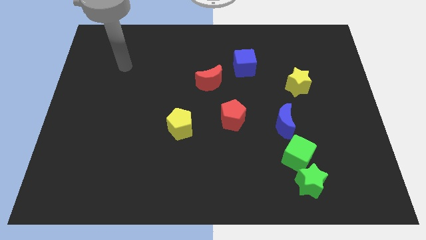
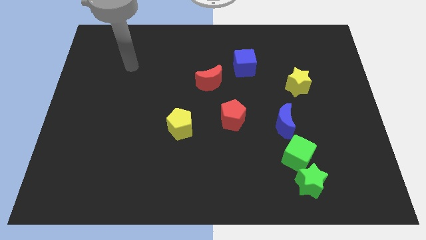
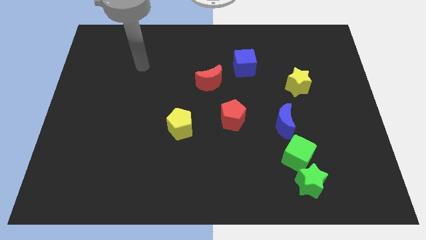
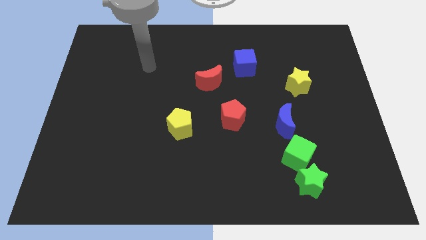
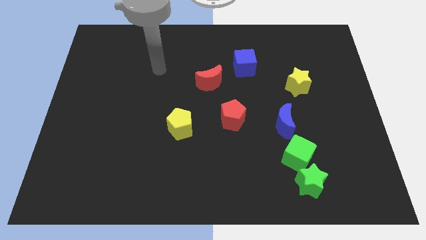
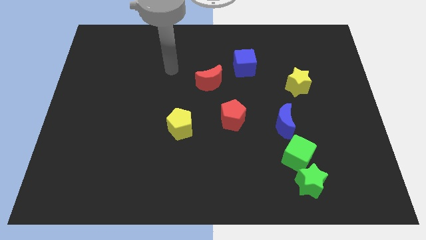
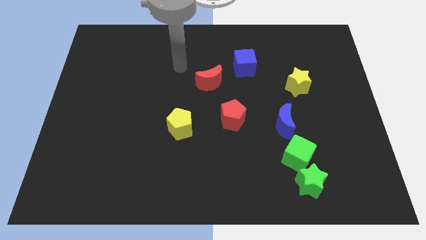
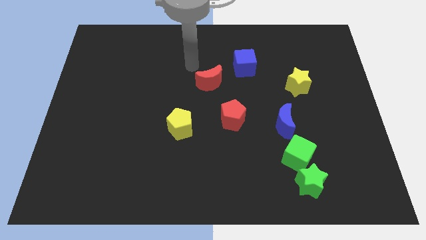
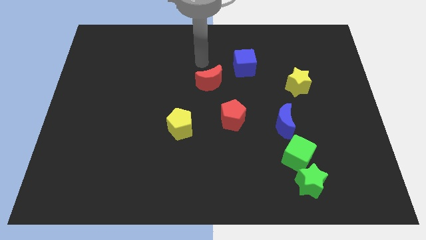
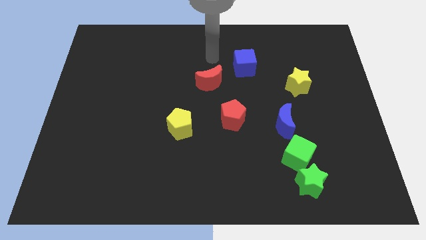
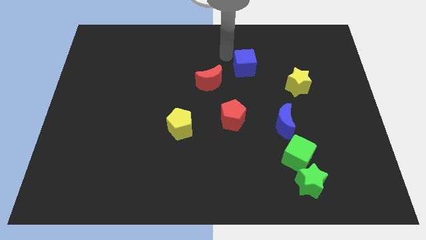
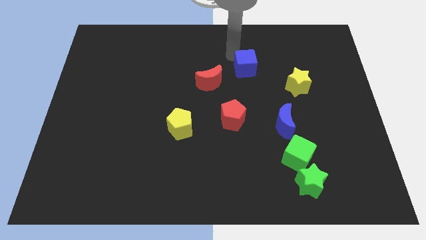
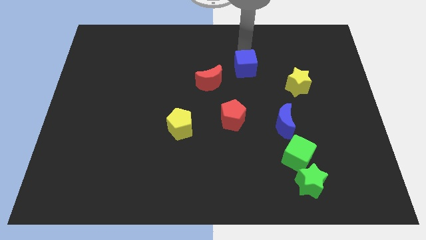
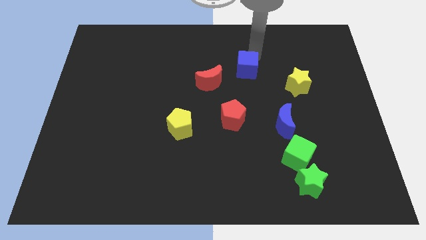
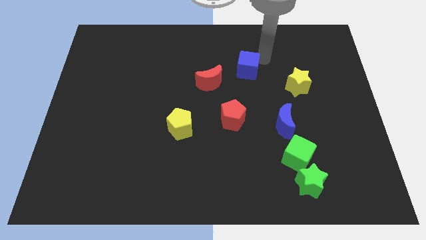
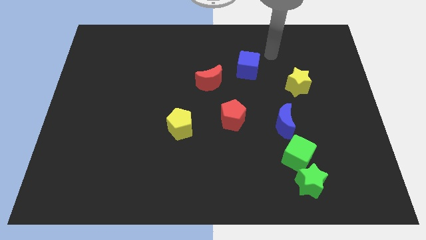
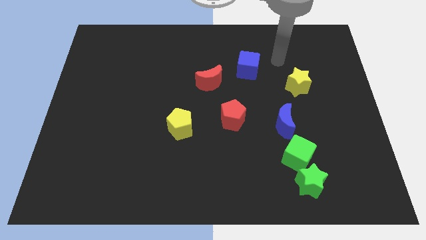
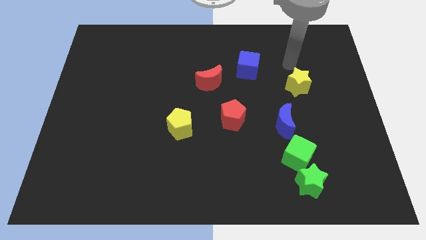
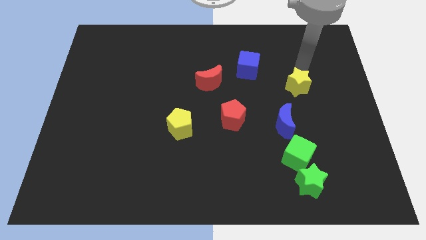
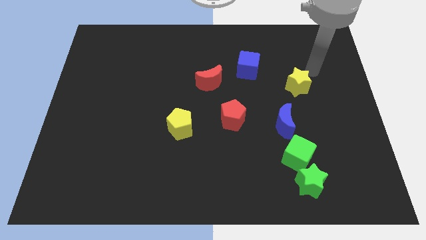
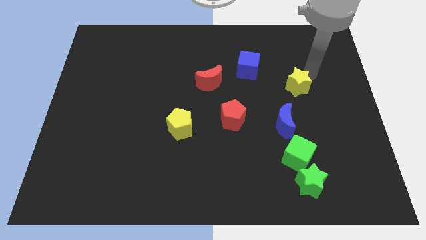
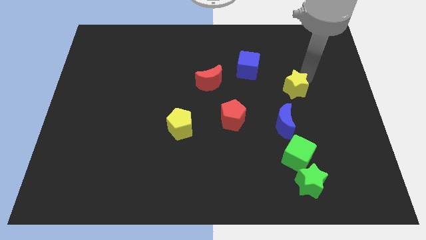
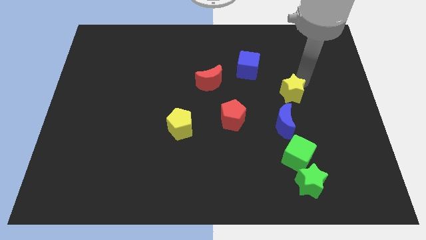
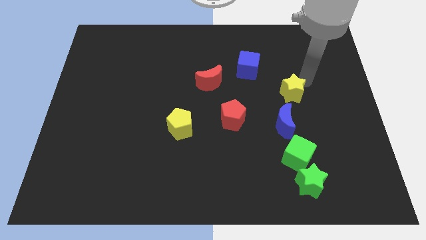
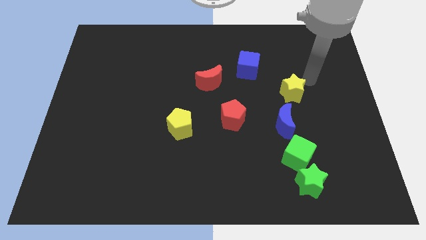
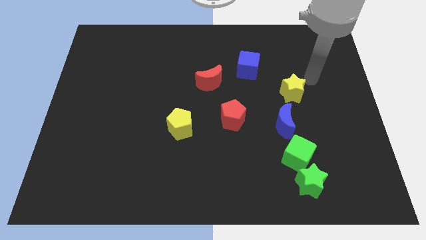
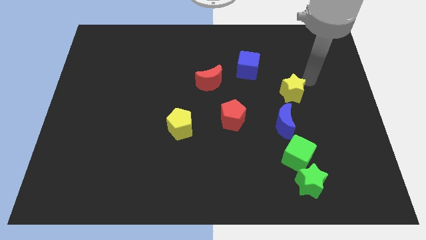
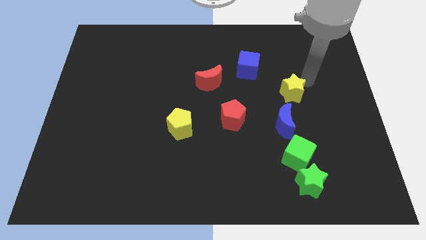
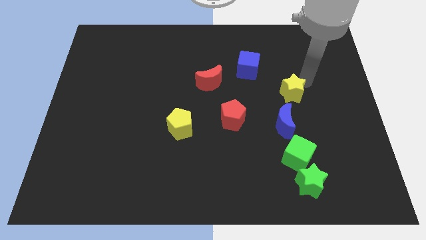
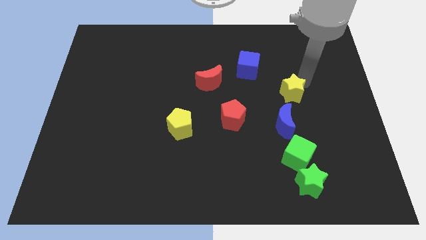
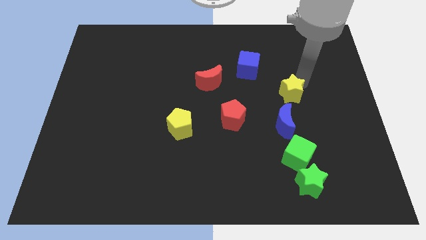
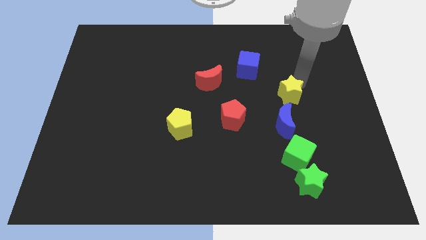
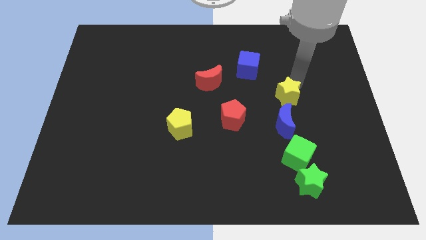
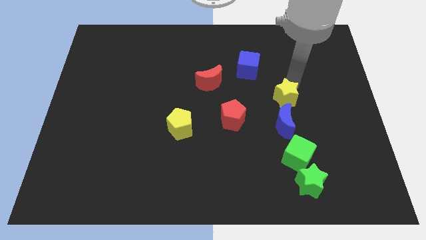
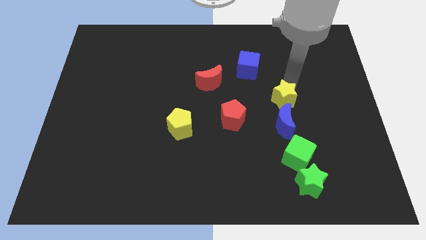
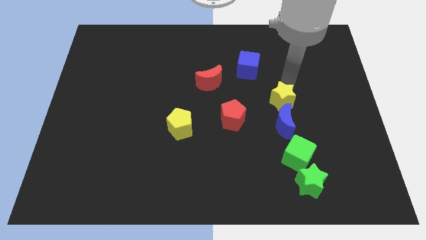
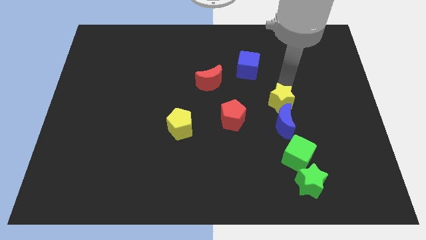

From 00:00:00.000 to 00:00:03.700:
slightly slide the yellow star down and to the left diagonally

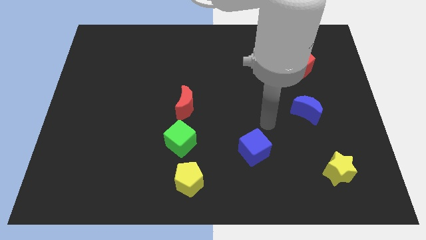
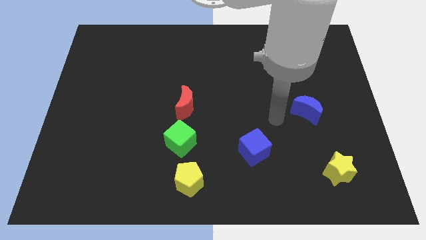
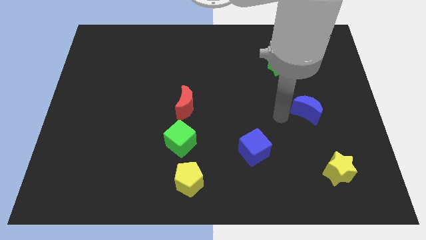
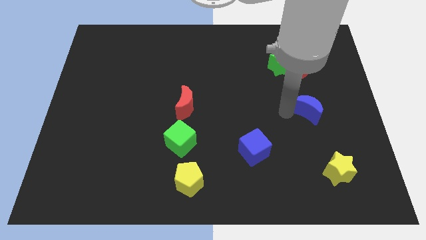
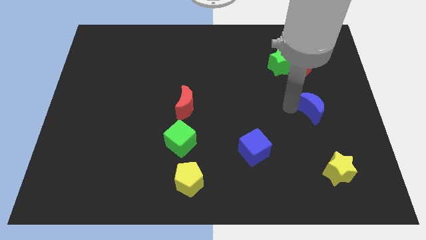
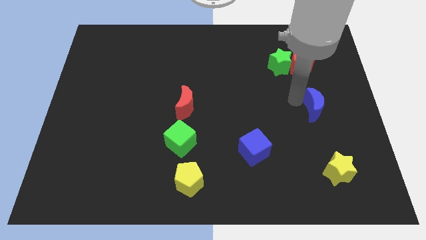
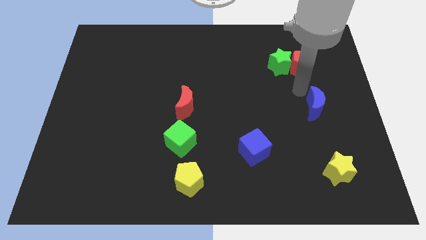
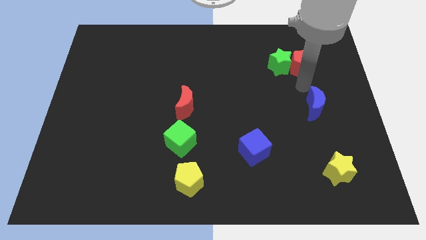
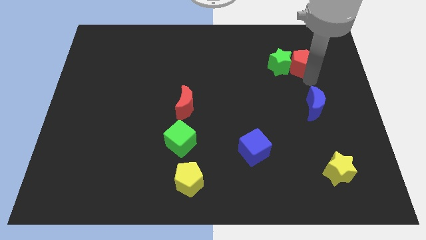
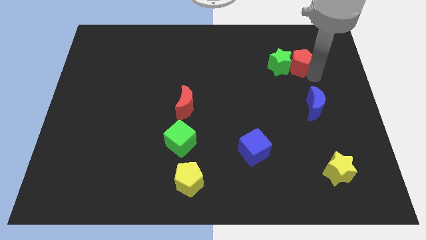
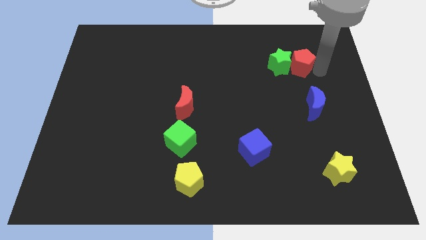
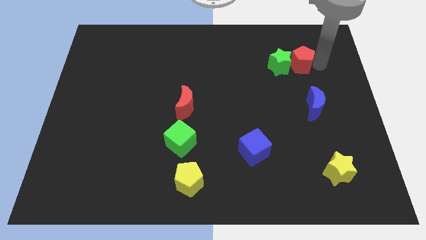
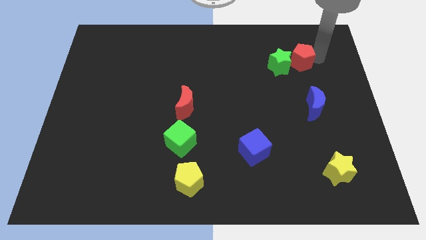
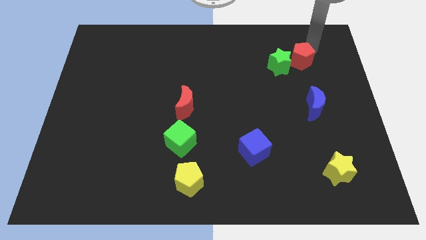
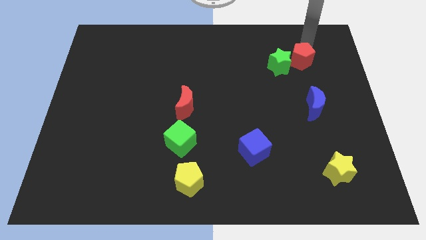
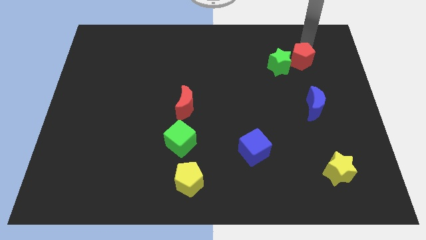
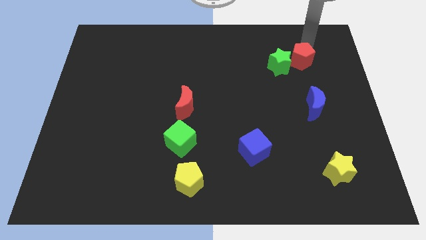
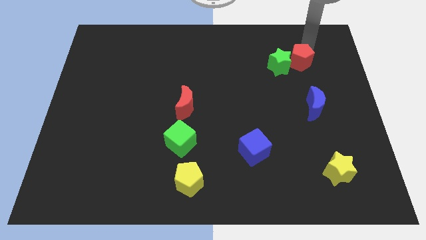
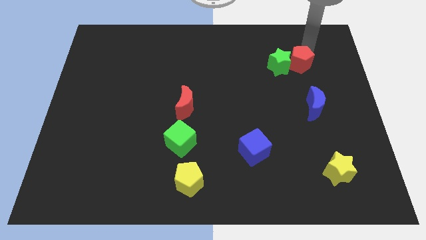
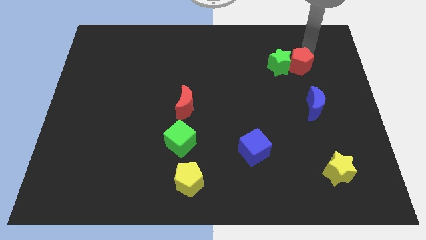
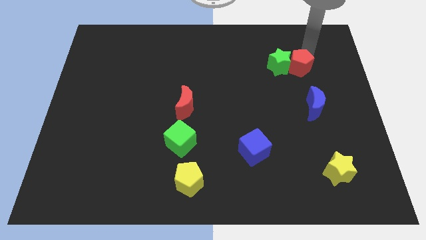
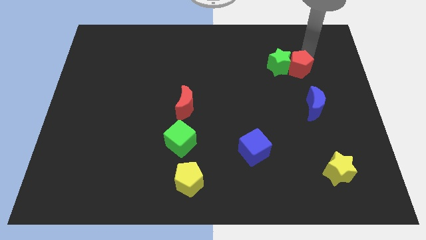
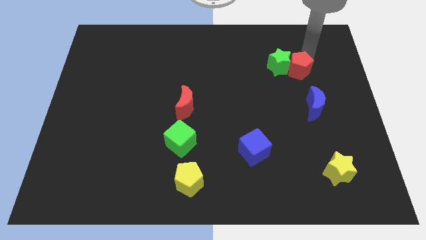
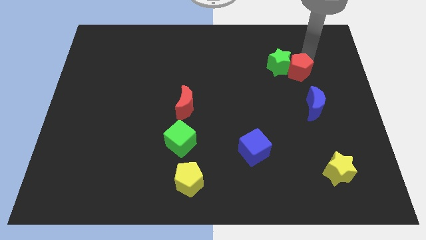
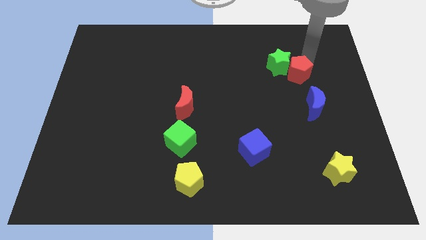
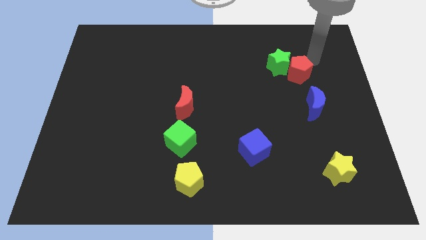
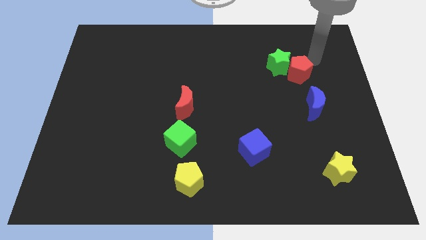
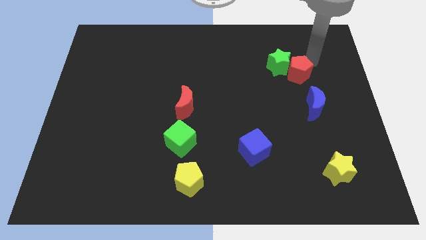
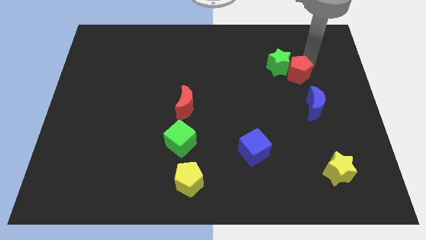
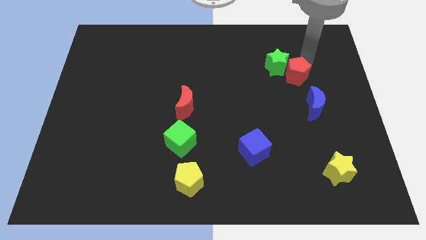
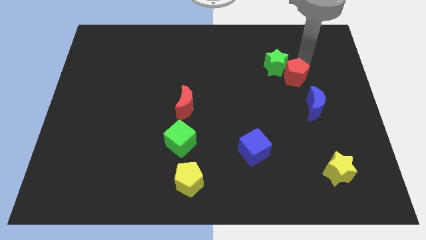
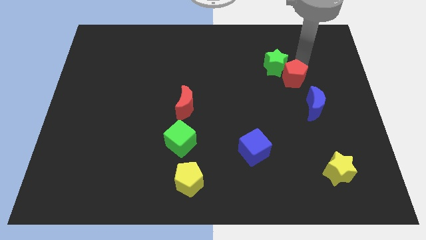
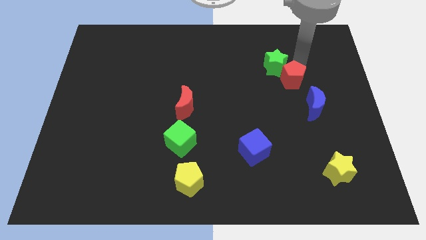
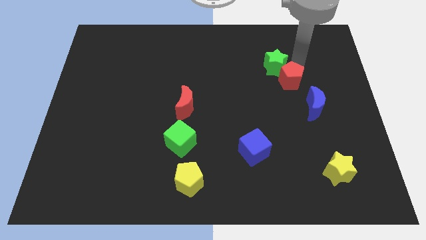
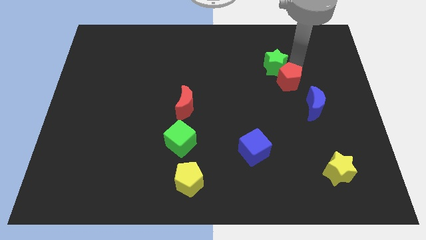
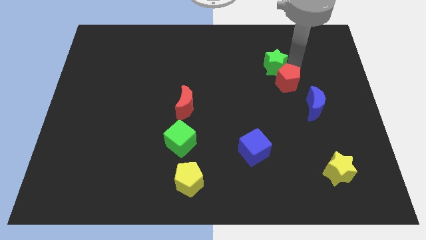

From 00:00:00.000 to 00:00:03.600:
slightly move the red pentagon downwards and then to the left

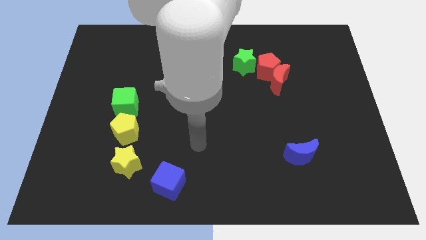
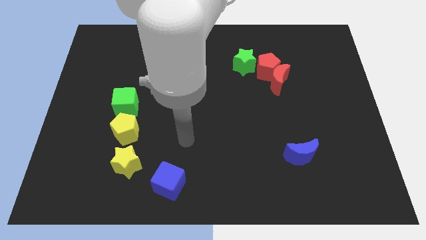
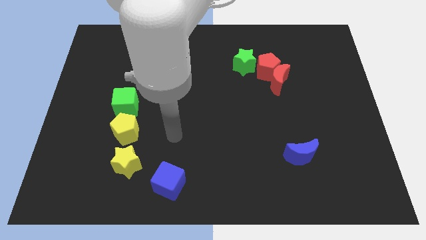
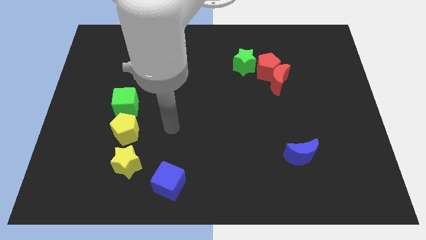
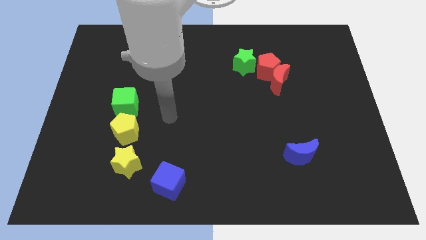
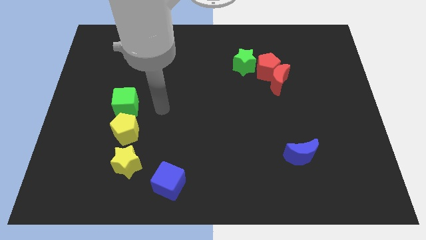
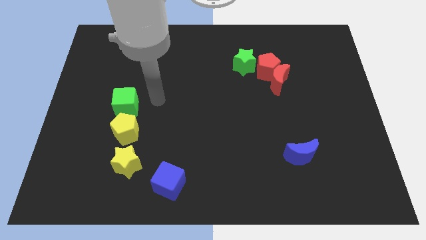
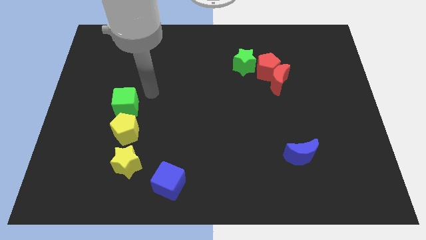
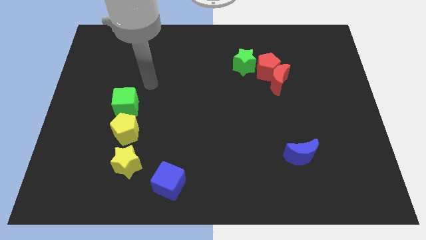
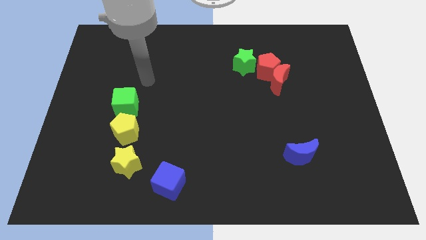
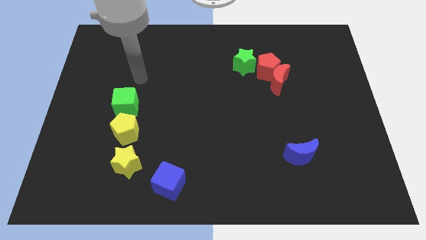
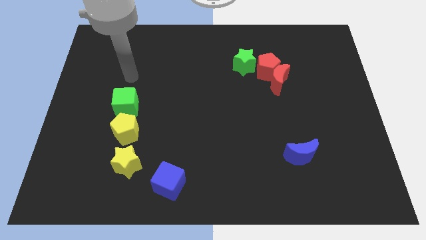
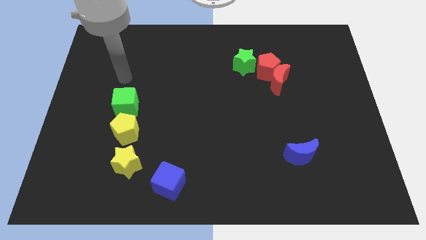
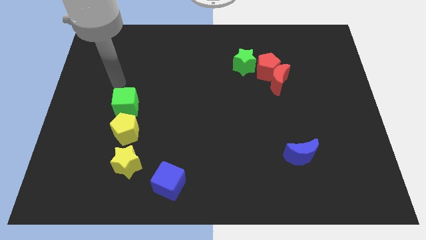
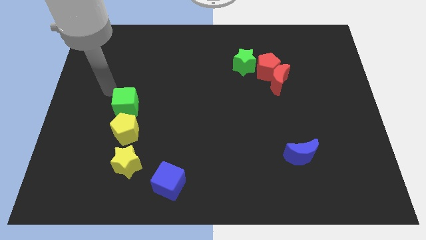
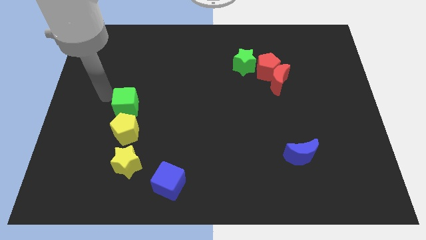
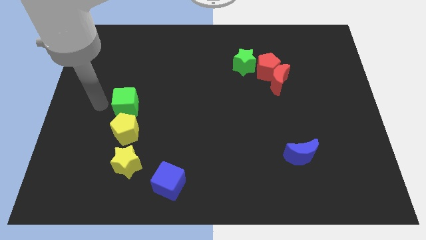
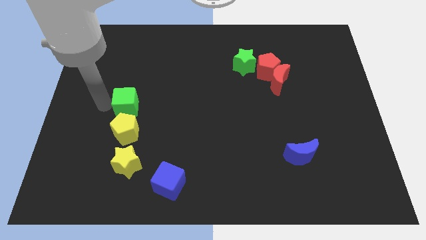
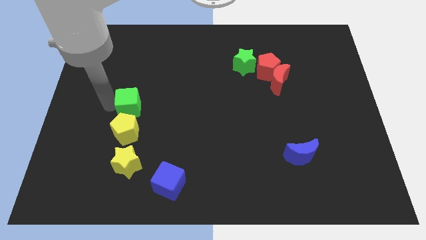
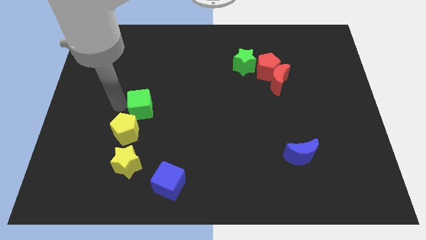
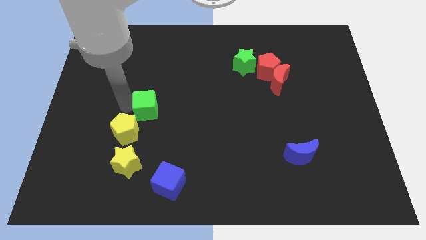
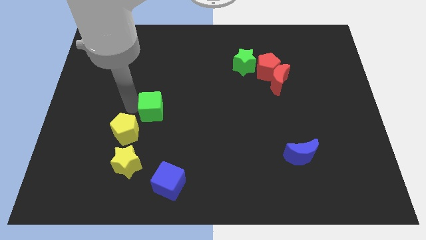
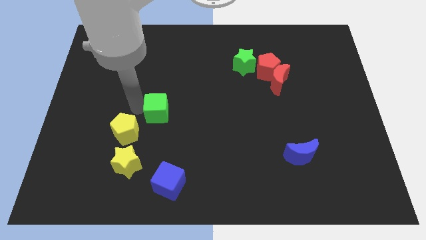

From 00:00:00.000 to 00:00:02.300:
slide the green cube a little bit right
